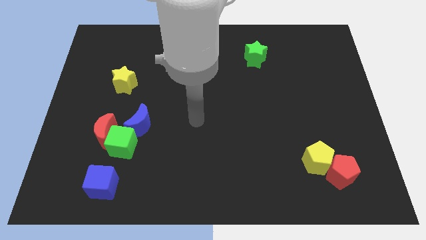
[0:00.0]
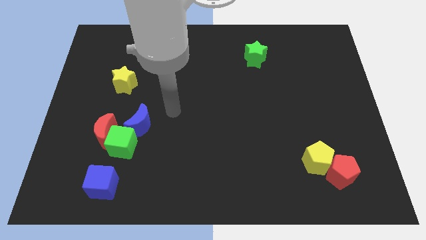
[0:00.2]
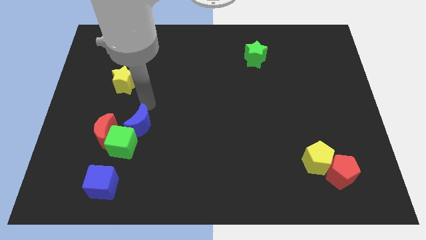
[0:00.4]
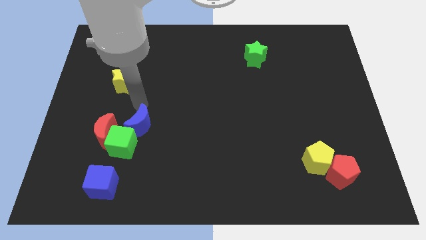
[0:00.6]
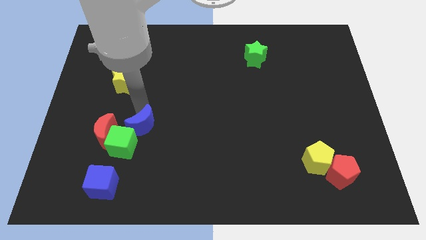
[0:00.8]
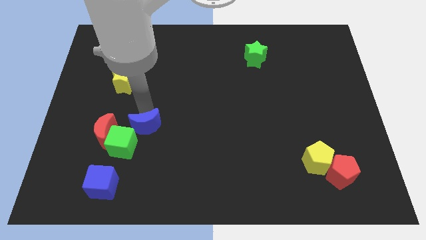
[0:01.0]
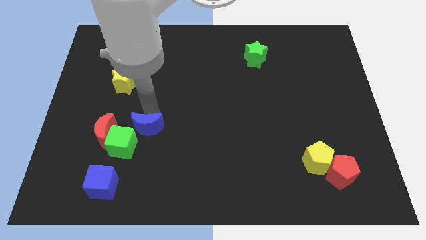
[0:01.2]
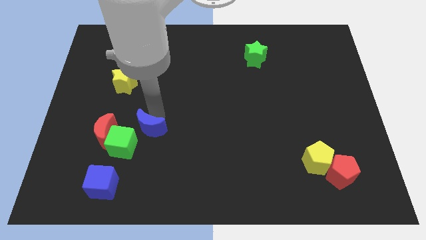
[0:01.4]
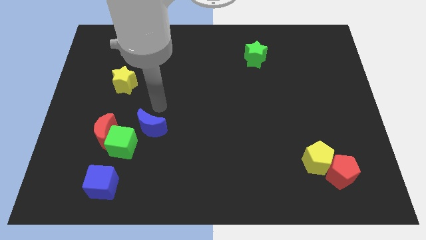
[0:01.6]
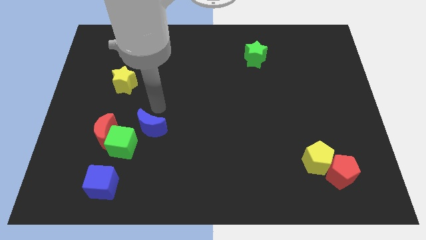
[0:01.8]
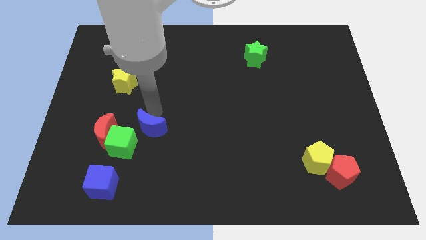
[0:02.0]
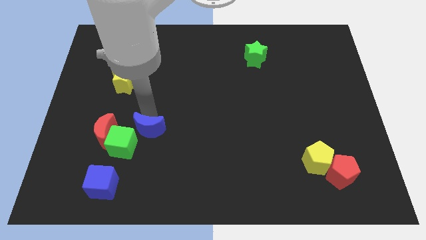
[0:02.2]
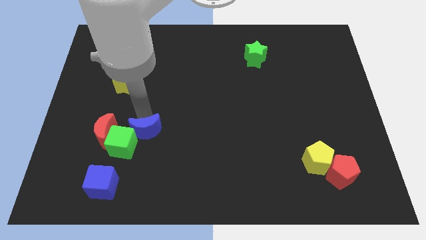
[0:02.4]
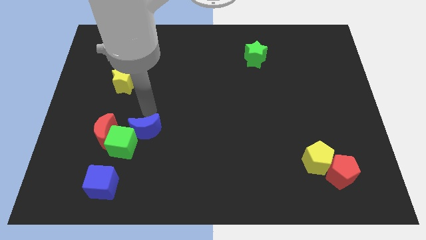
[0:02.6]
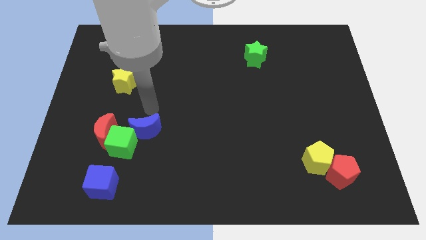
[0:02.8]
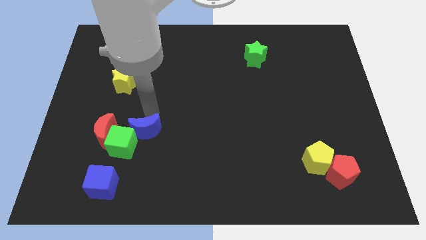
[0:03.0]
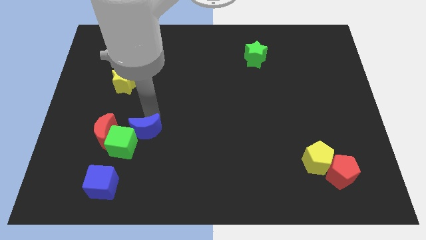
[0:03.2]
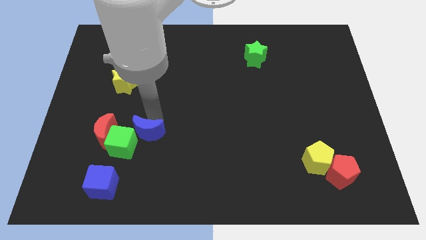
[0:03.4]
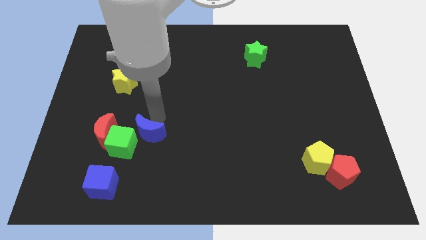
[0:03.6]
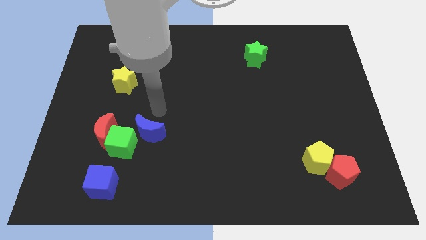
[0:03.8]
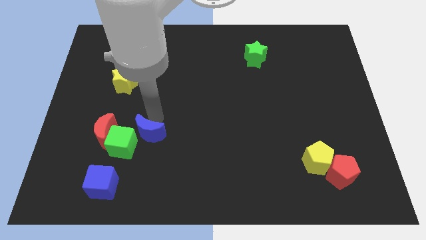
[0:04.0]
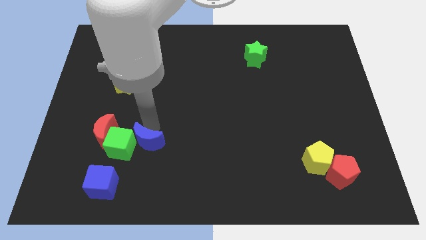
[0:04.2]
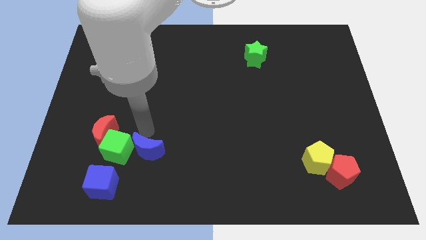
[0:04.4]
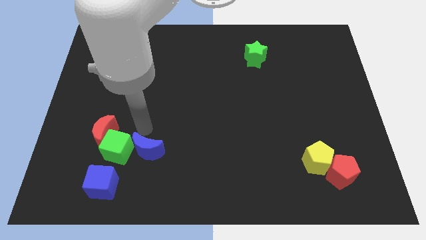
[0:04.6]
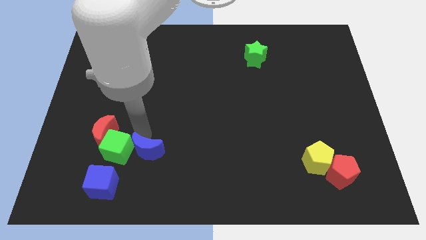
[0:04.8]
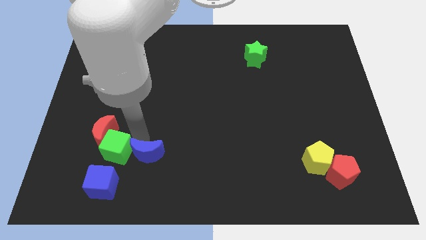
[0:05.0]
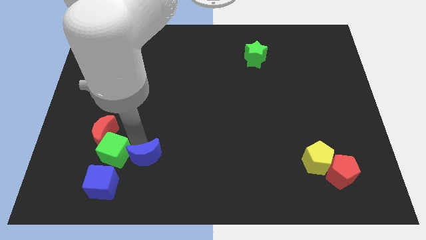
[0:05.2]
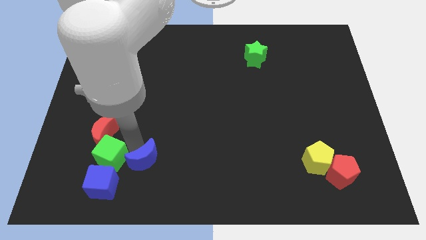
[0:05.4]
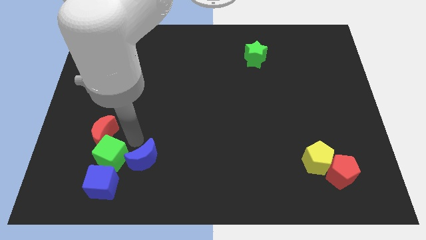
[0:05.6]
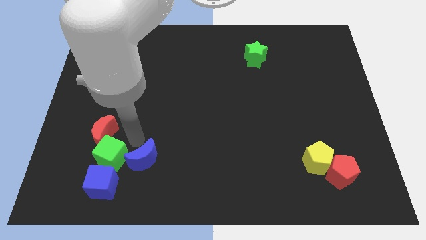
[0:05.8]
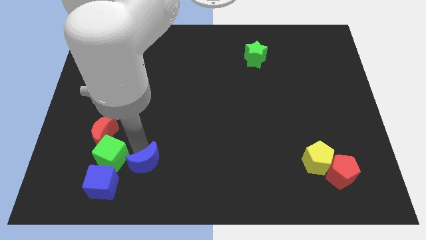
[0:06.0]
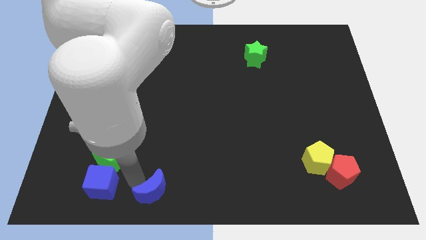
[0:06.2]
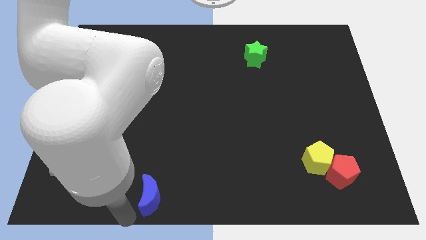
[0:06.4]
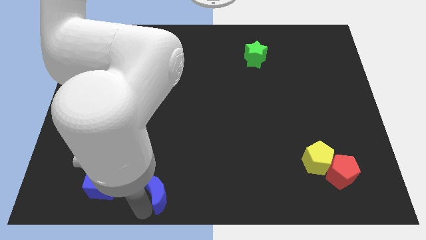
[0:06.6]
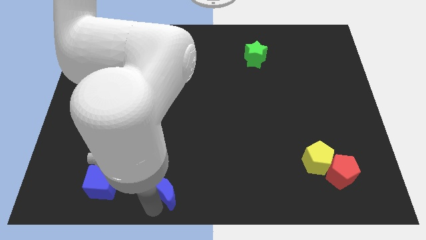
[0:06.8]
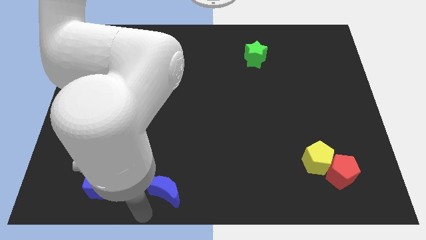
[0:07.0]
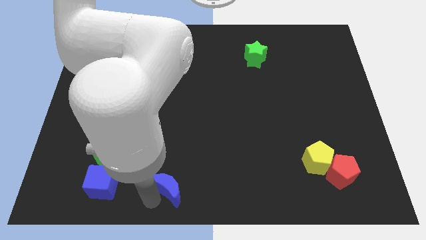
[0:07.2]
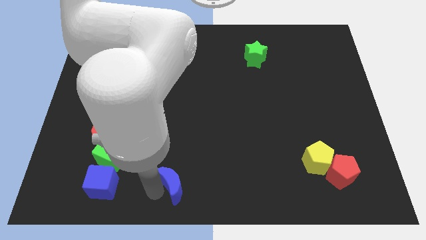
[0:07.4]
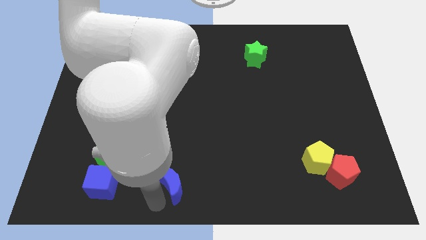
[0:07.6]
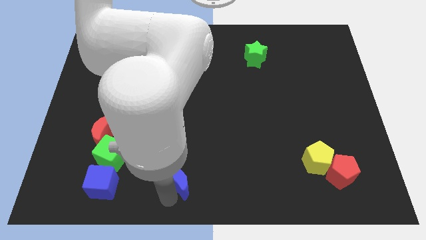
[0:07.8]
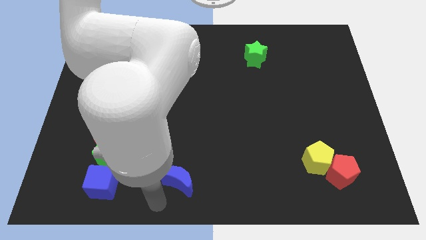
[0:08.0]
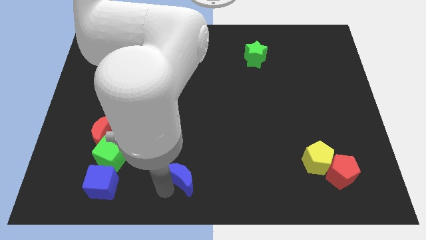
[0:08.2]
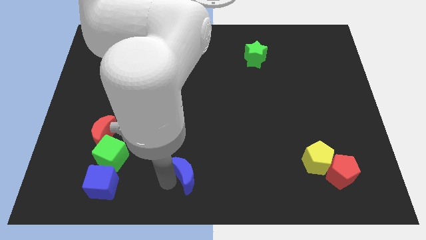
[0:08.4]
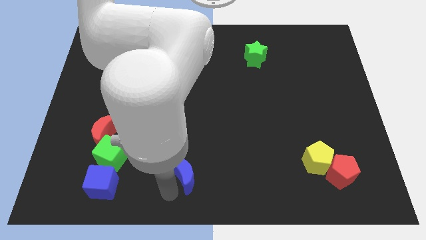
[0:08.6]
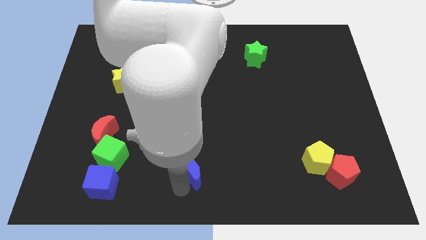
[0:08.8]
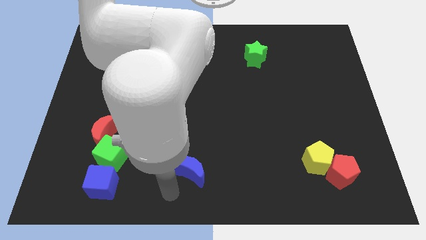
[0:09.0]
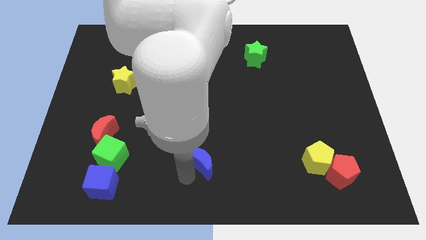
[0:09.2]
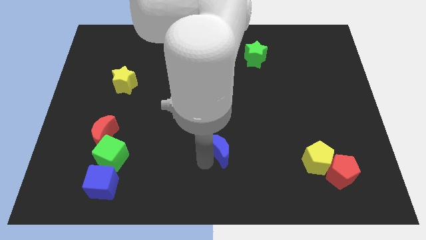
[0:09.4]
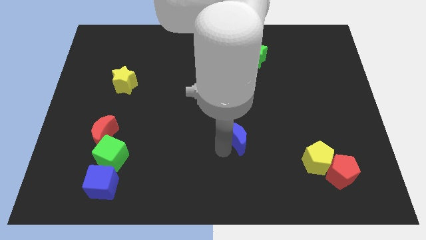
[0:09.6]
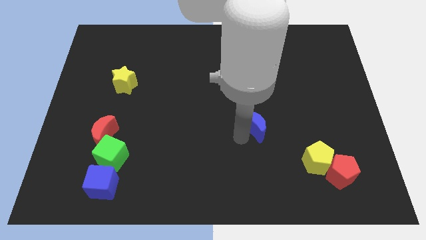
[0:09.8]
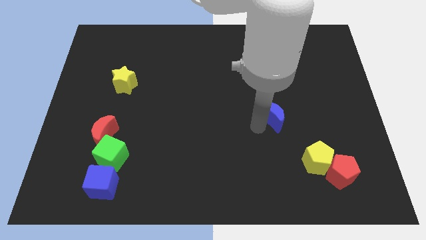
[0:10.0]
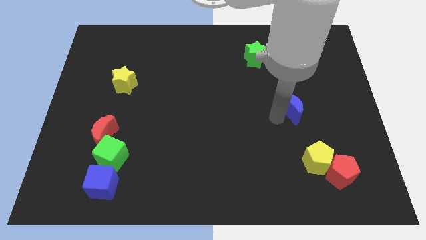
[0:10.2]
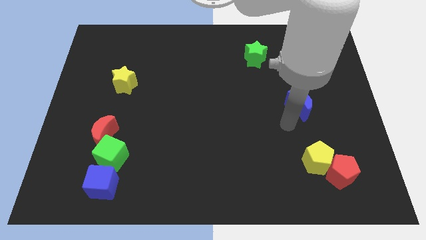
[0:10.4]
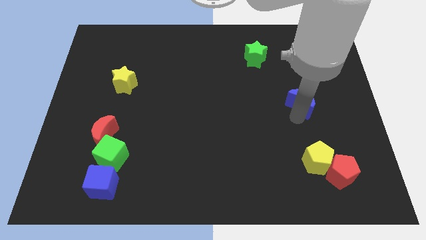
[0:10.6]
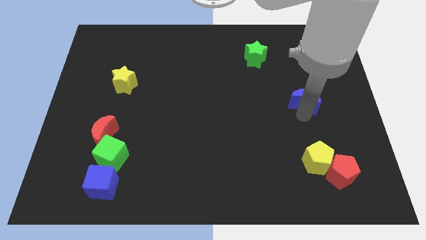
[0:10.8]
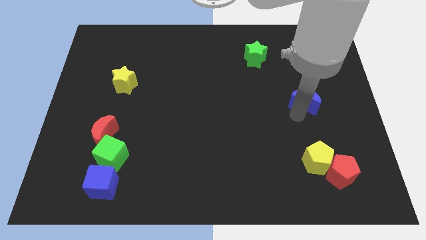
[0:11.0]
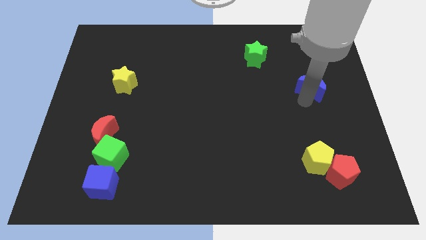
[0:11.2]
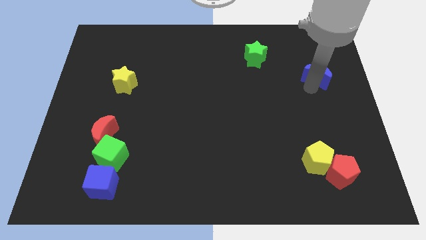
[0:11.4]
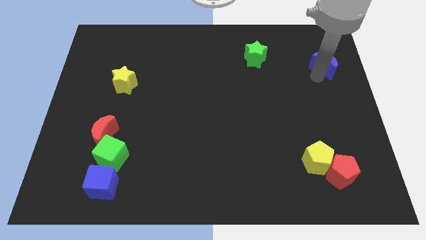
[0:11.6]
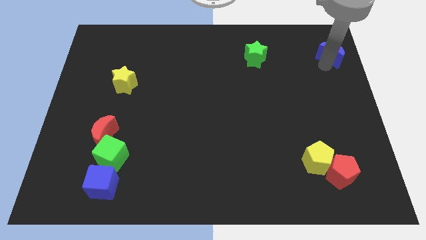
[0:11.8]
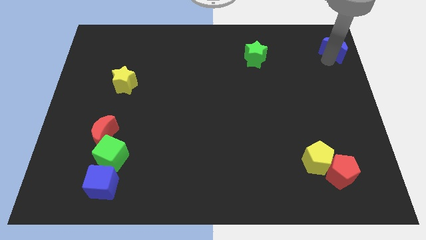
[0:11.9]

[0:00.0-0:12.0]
push the blue moon to the top right

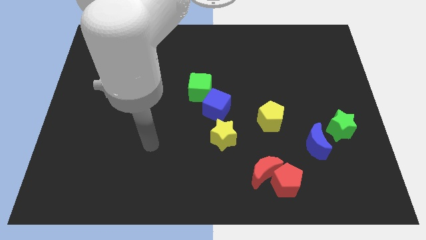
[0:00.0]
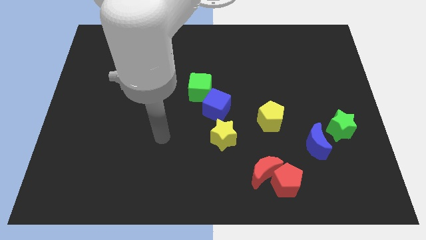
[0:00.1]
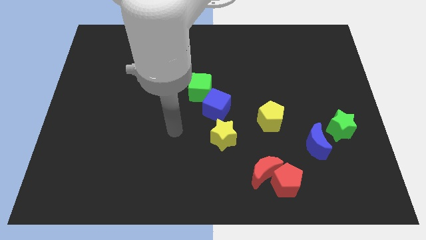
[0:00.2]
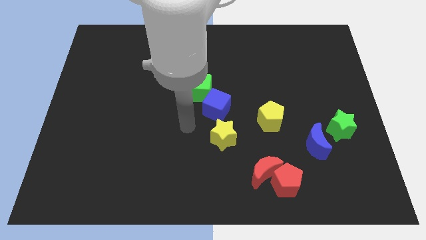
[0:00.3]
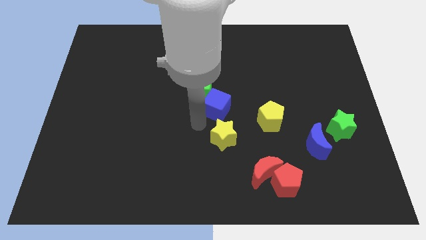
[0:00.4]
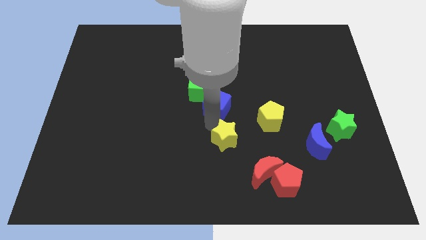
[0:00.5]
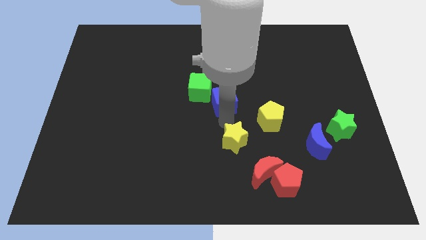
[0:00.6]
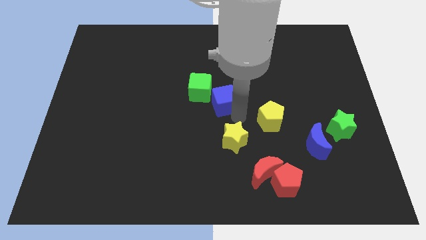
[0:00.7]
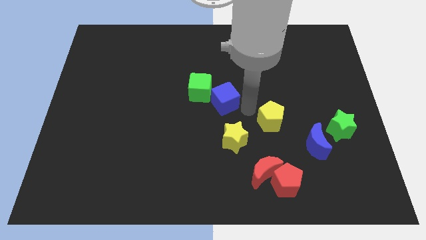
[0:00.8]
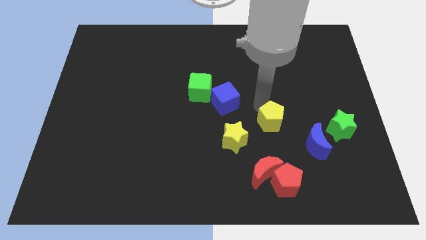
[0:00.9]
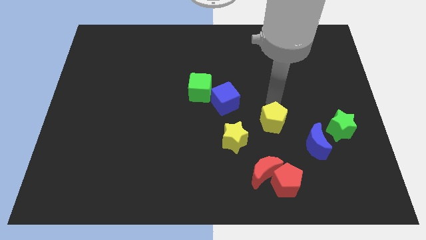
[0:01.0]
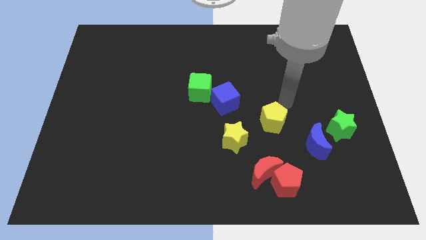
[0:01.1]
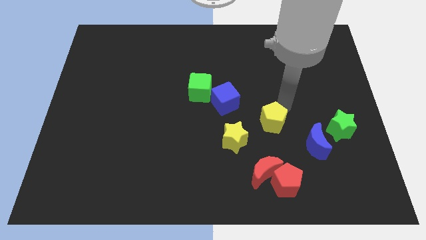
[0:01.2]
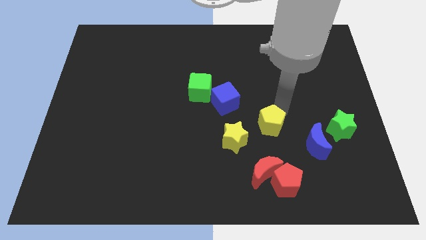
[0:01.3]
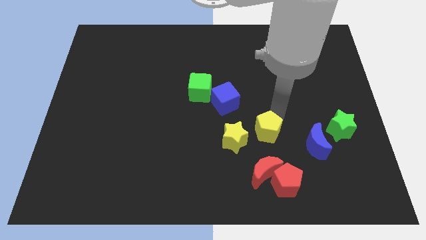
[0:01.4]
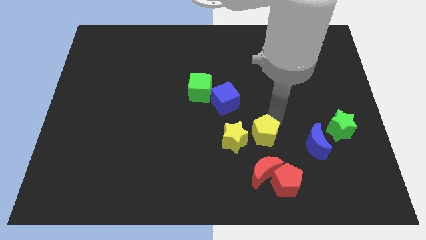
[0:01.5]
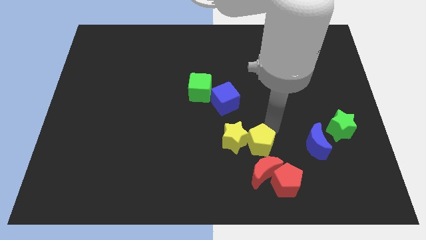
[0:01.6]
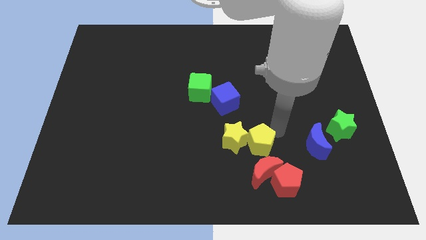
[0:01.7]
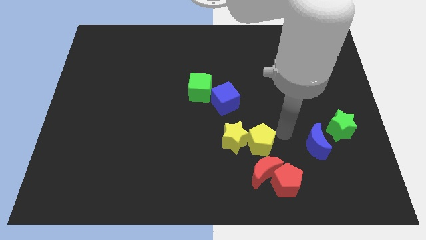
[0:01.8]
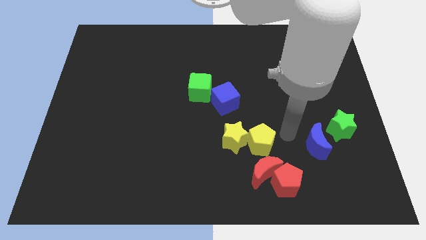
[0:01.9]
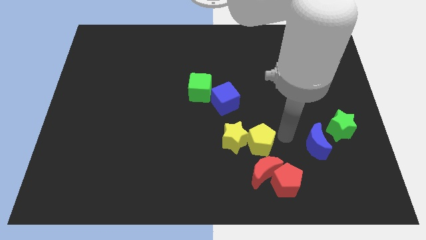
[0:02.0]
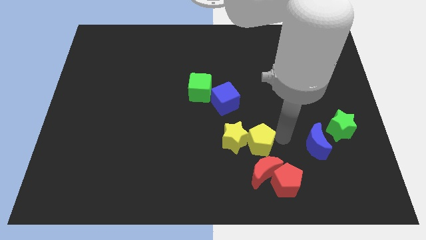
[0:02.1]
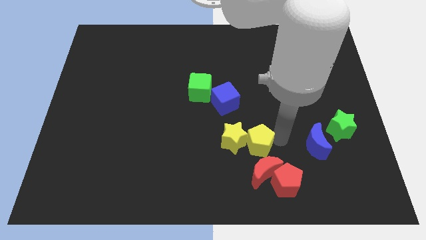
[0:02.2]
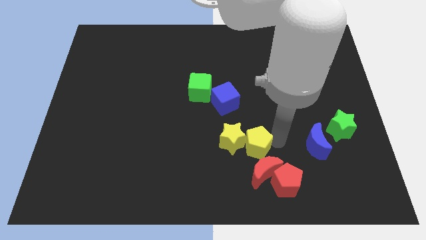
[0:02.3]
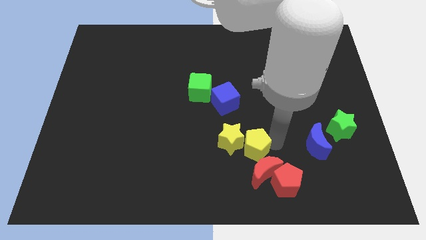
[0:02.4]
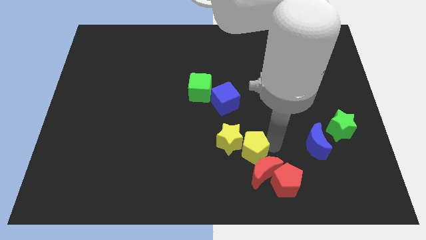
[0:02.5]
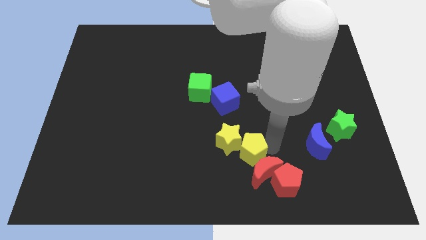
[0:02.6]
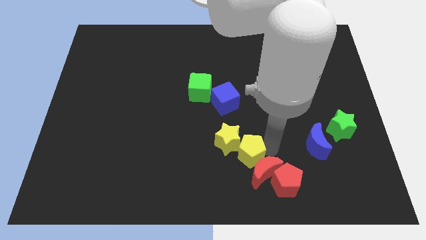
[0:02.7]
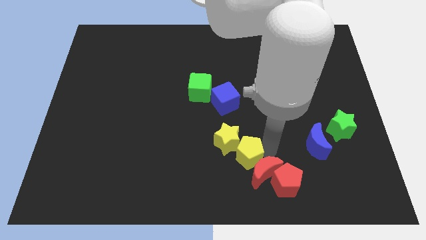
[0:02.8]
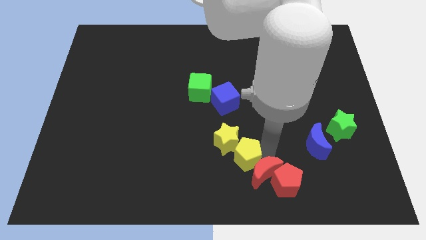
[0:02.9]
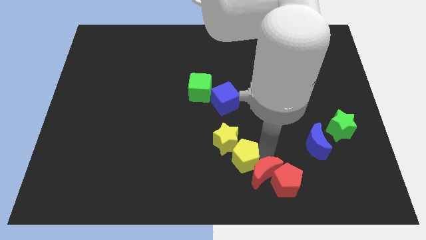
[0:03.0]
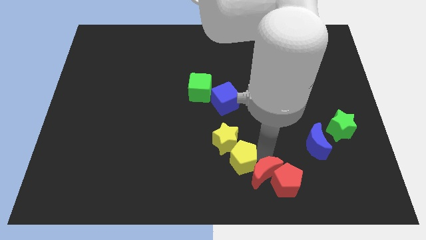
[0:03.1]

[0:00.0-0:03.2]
push the yellow pentagon to the bottom side
